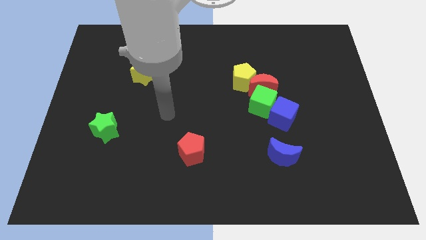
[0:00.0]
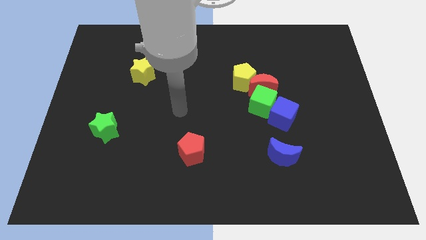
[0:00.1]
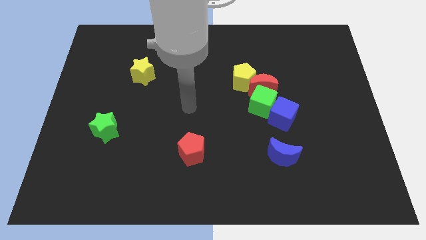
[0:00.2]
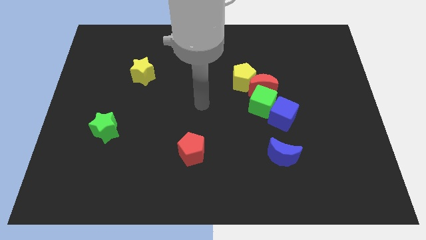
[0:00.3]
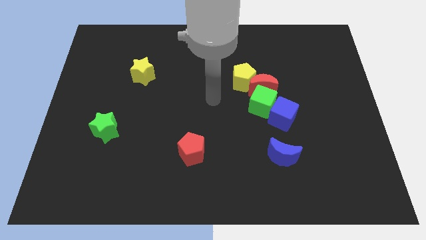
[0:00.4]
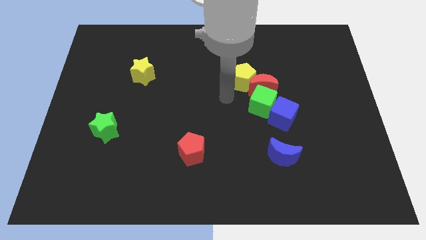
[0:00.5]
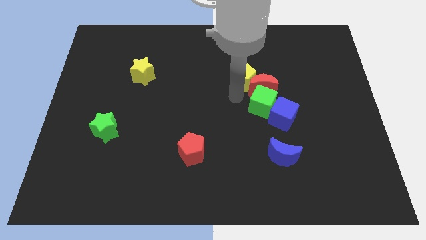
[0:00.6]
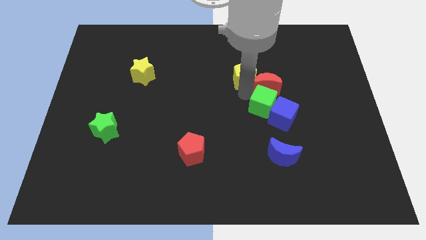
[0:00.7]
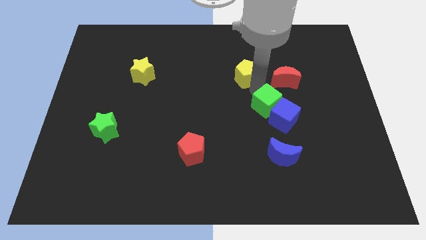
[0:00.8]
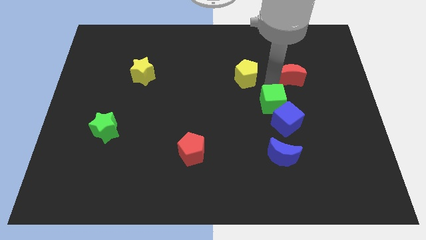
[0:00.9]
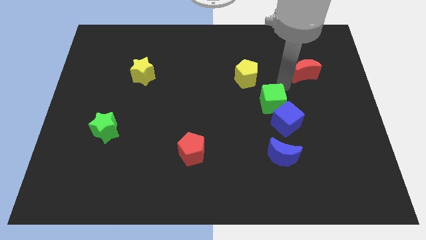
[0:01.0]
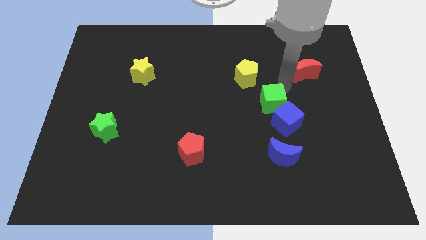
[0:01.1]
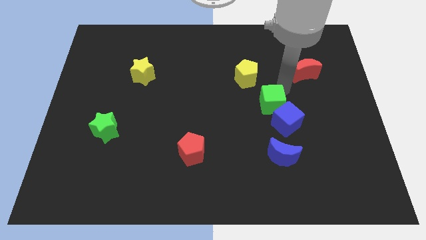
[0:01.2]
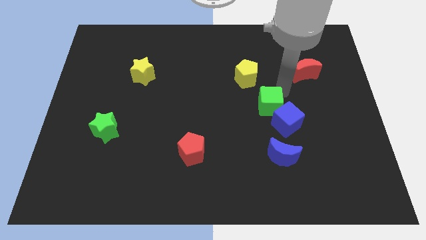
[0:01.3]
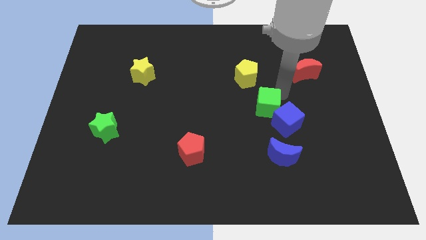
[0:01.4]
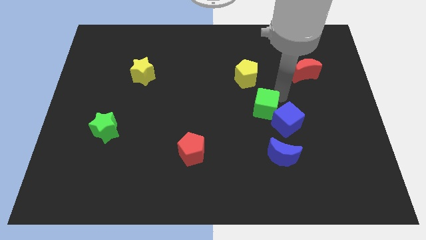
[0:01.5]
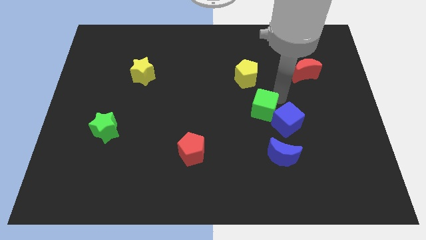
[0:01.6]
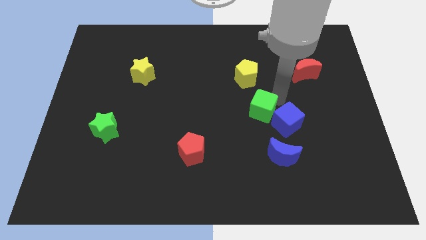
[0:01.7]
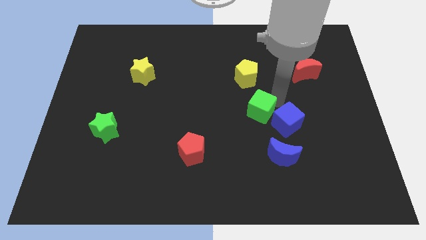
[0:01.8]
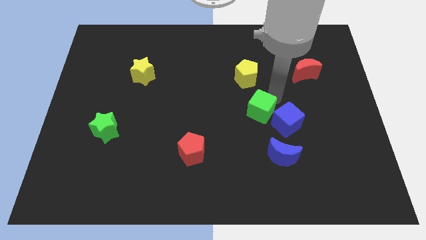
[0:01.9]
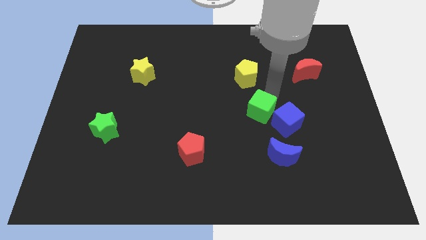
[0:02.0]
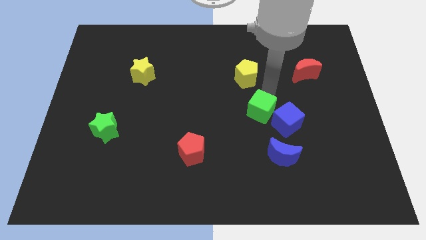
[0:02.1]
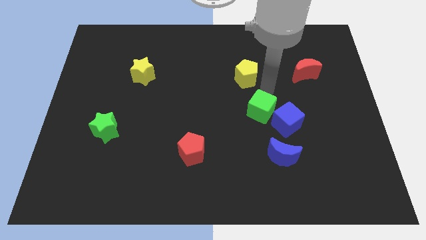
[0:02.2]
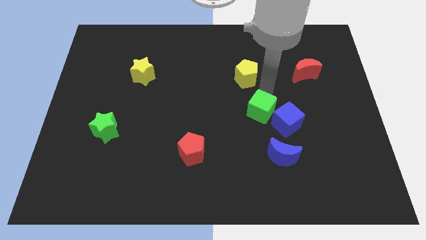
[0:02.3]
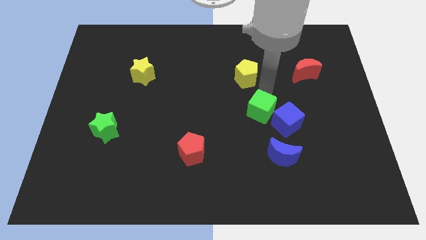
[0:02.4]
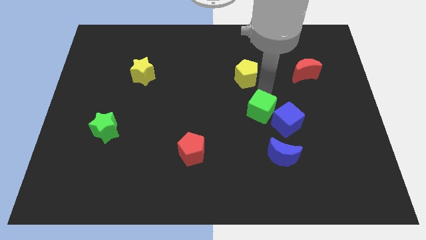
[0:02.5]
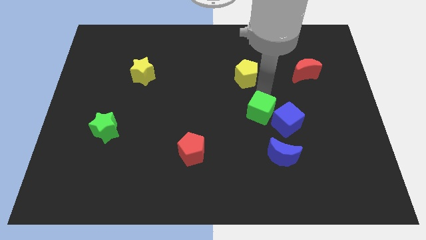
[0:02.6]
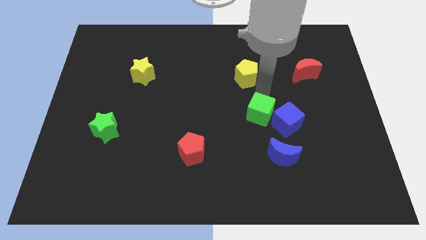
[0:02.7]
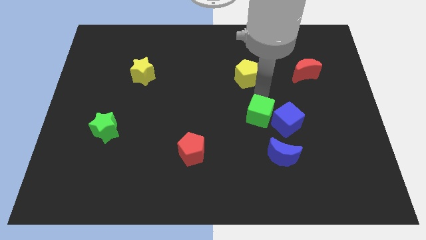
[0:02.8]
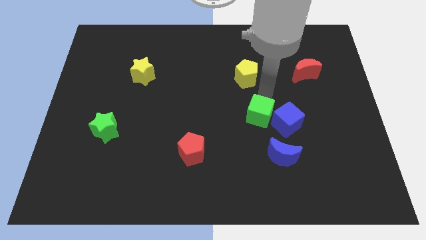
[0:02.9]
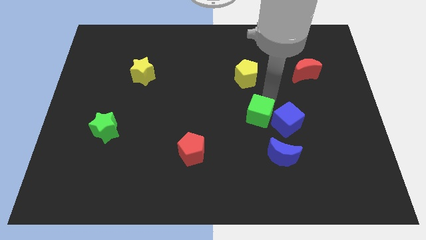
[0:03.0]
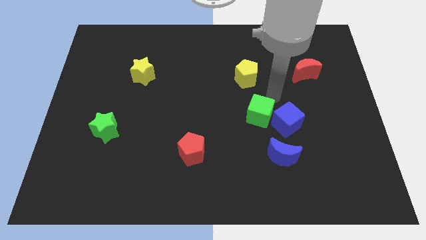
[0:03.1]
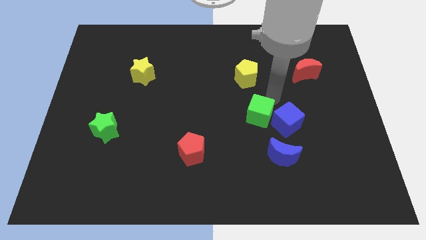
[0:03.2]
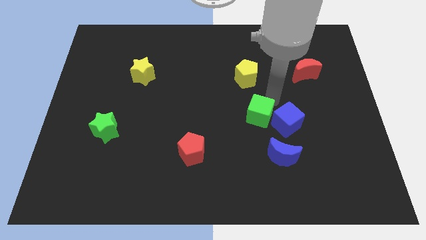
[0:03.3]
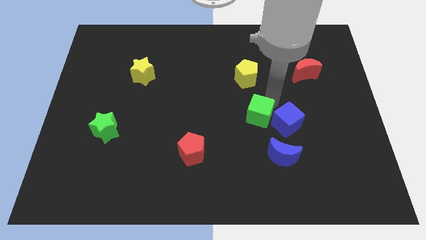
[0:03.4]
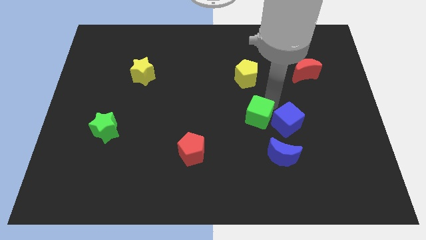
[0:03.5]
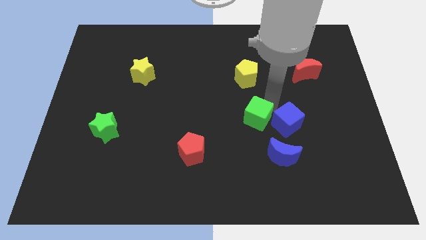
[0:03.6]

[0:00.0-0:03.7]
move the green cube away from the group

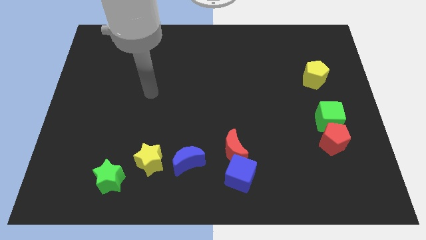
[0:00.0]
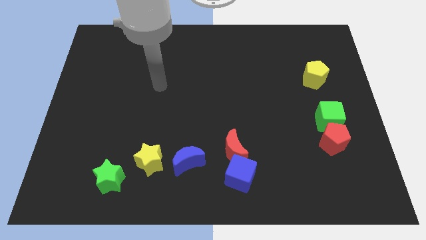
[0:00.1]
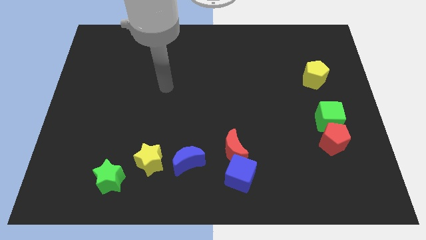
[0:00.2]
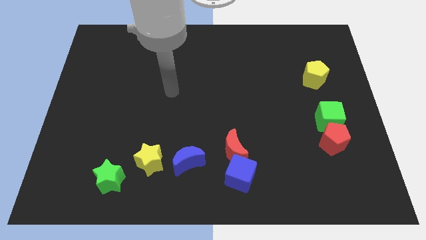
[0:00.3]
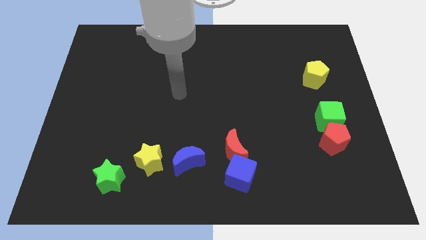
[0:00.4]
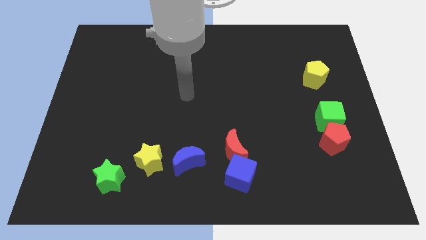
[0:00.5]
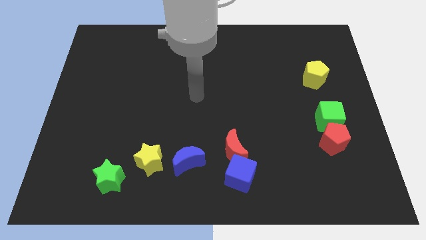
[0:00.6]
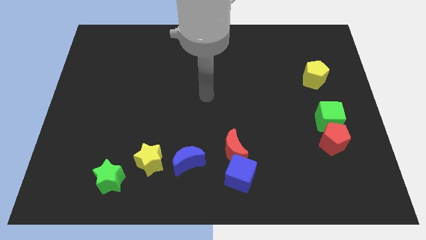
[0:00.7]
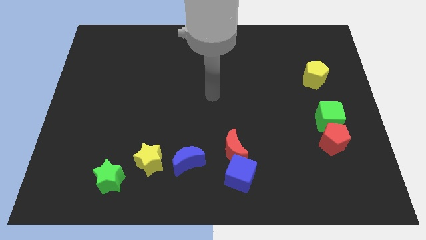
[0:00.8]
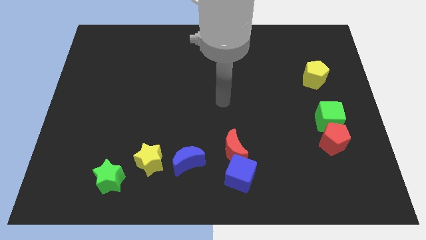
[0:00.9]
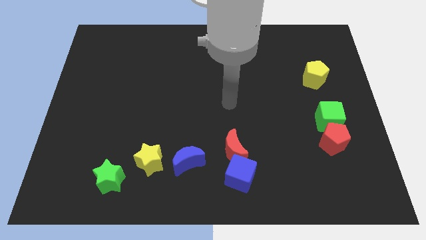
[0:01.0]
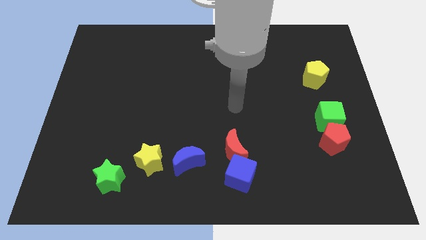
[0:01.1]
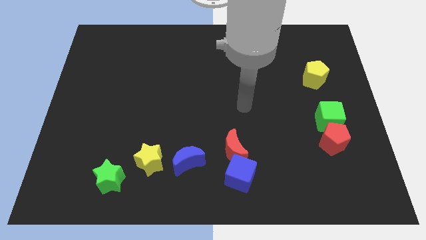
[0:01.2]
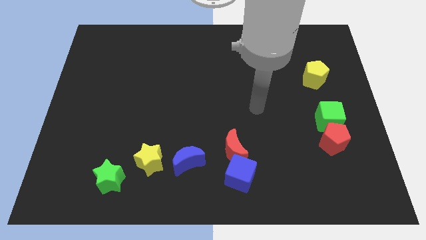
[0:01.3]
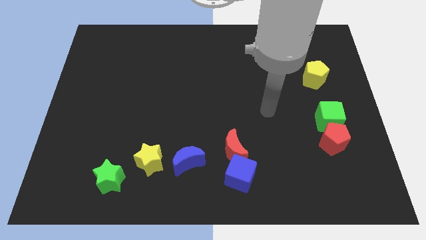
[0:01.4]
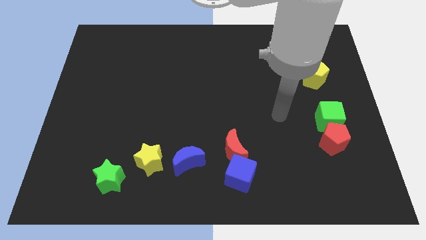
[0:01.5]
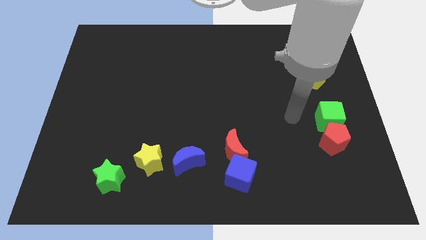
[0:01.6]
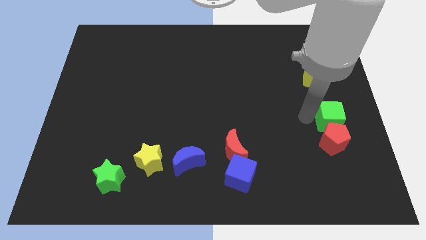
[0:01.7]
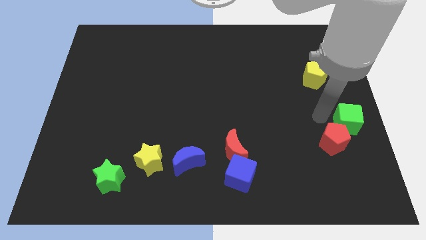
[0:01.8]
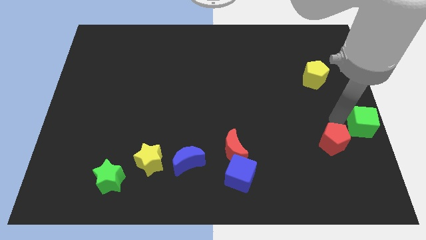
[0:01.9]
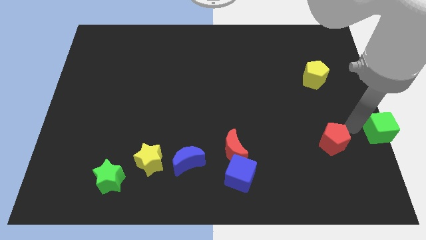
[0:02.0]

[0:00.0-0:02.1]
pull the red pentagon apart from the green cube

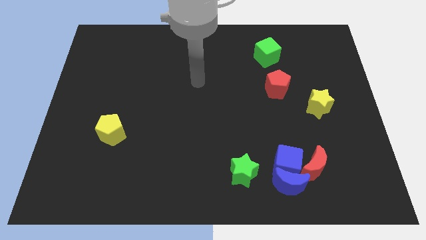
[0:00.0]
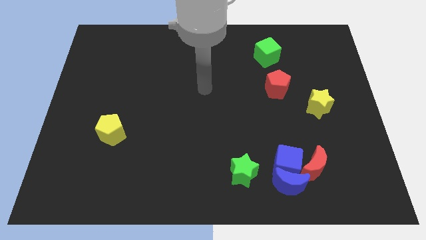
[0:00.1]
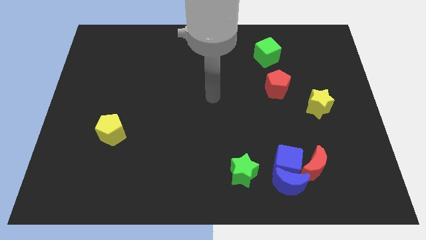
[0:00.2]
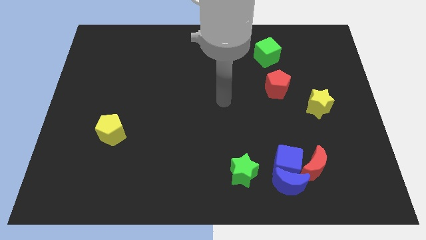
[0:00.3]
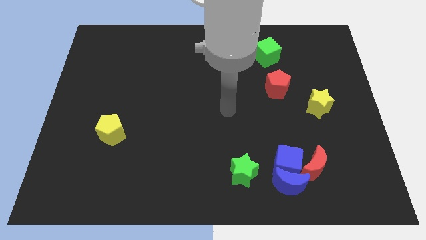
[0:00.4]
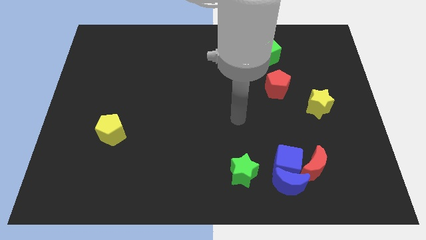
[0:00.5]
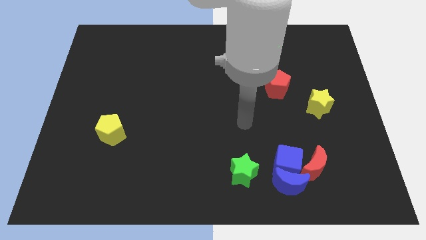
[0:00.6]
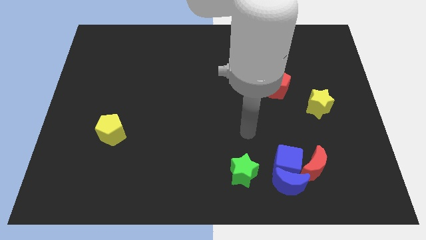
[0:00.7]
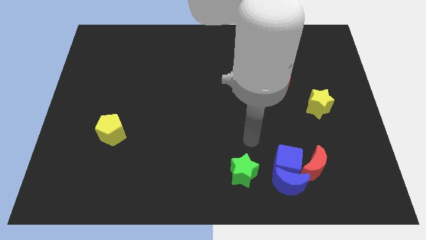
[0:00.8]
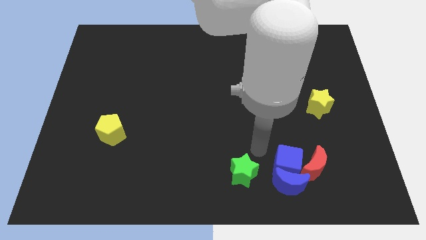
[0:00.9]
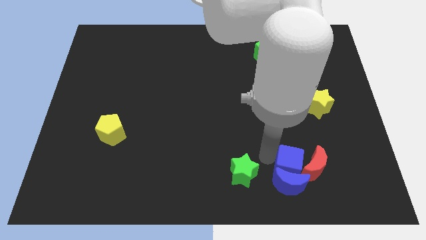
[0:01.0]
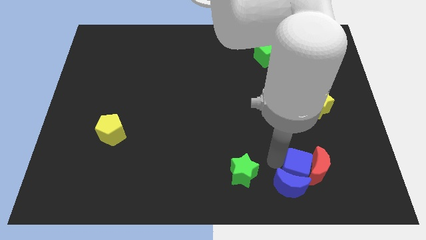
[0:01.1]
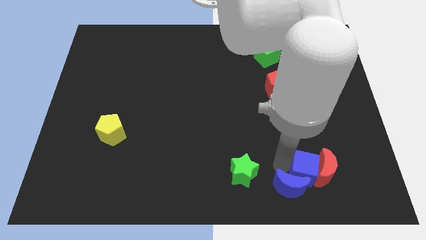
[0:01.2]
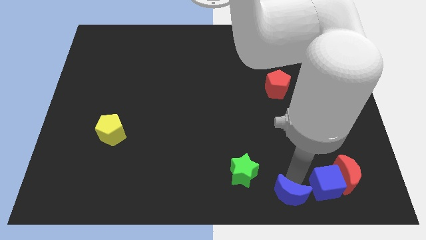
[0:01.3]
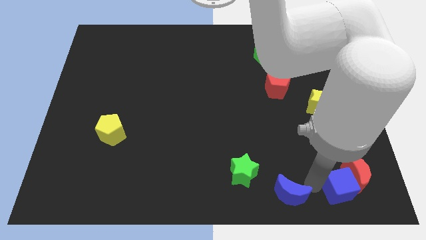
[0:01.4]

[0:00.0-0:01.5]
separate the red moon from the blue cube and blue moon

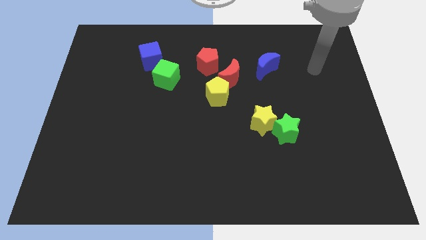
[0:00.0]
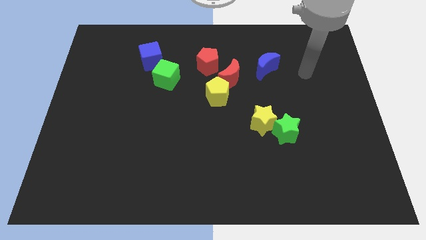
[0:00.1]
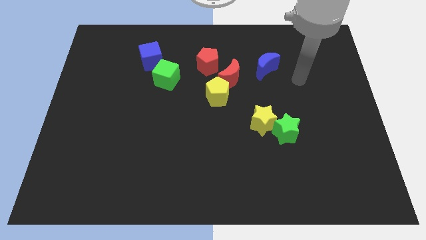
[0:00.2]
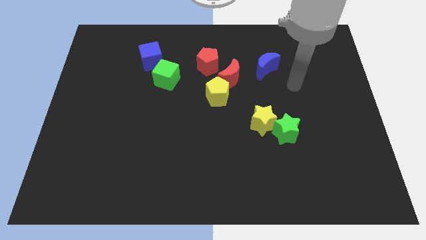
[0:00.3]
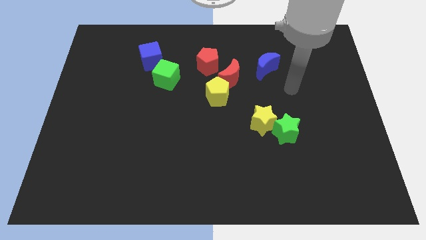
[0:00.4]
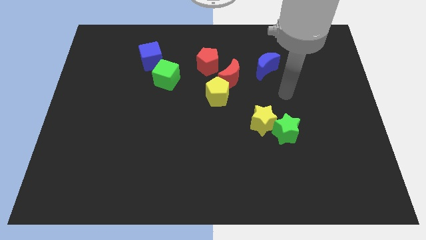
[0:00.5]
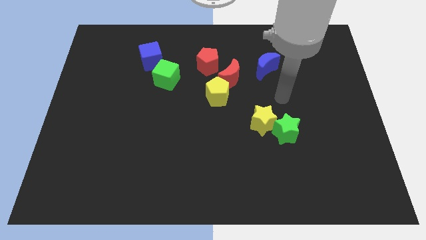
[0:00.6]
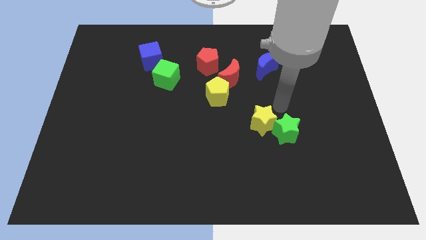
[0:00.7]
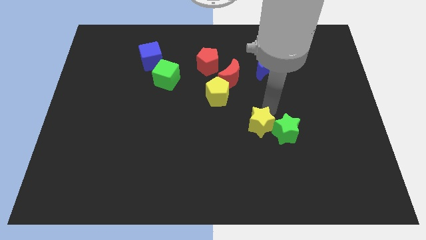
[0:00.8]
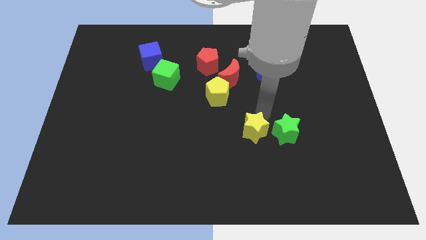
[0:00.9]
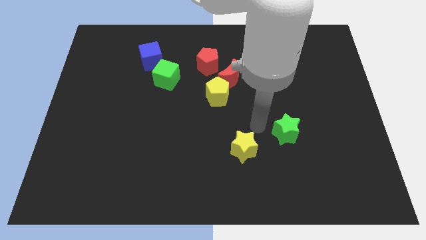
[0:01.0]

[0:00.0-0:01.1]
pull the green star apart from the yellow star

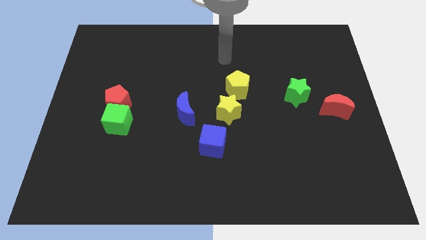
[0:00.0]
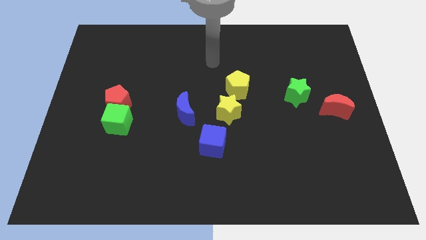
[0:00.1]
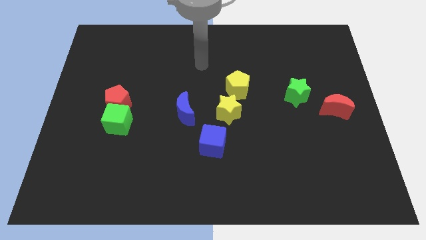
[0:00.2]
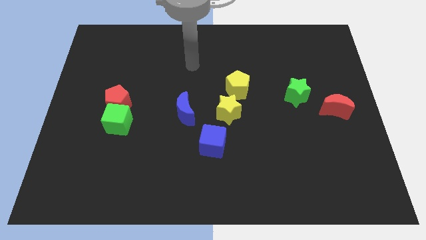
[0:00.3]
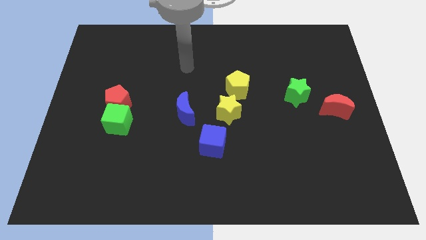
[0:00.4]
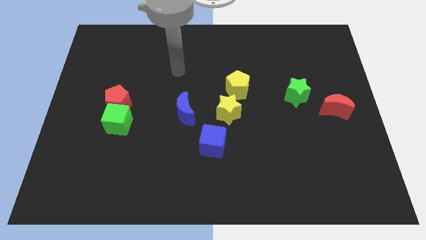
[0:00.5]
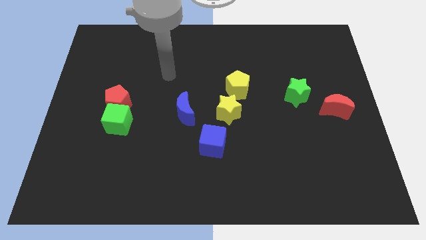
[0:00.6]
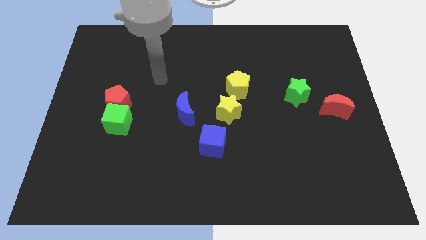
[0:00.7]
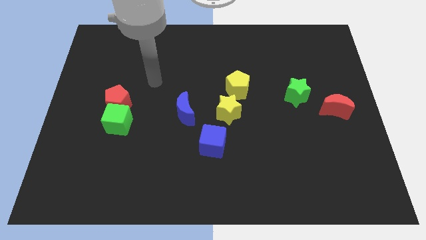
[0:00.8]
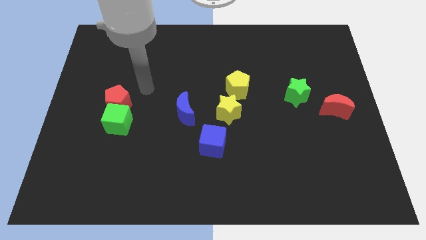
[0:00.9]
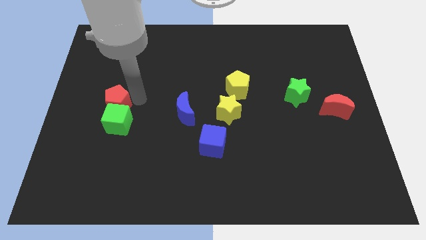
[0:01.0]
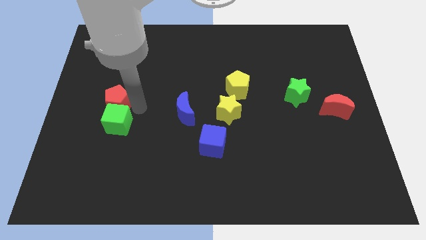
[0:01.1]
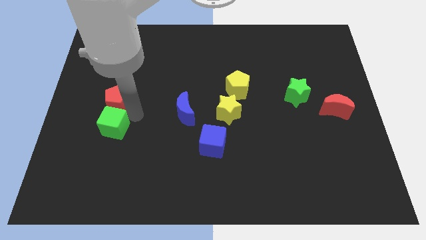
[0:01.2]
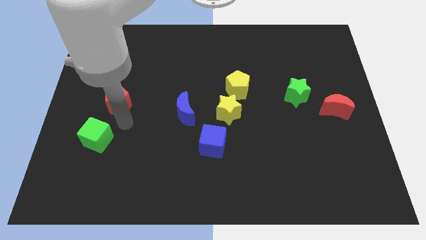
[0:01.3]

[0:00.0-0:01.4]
move the red pentagon away from the green cube
